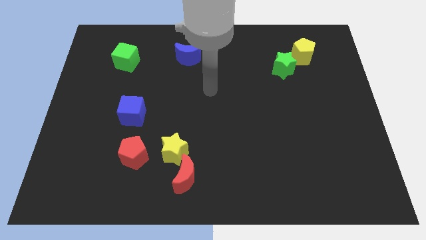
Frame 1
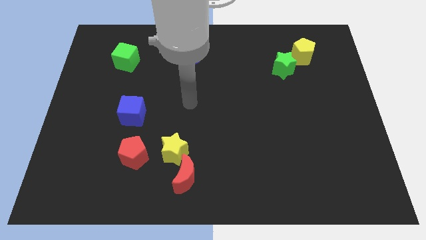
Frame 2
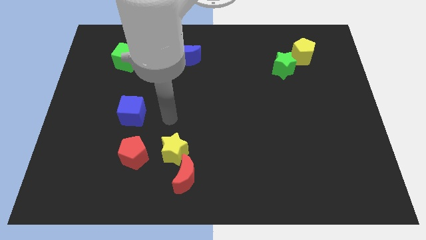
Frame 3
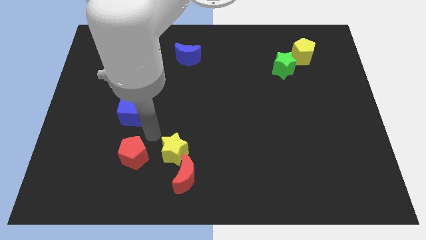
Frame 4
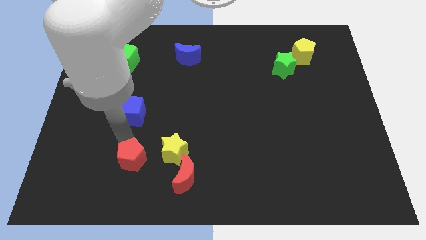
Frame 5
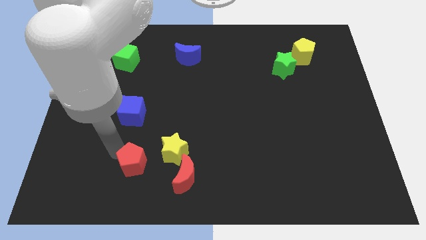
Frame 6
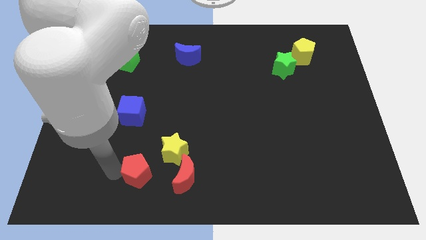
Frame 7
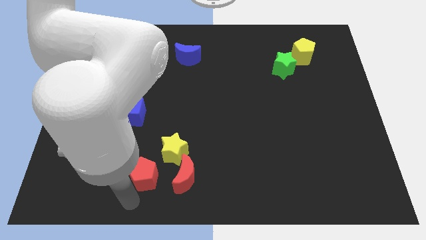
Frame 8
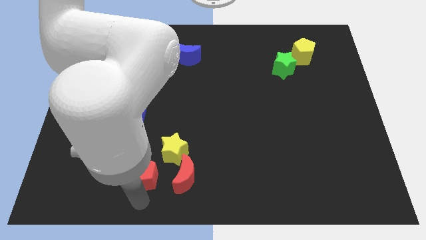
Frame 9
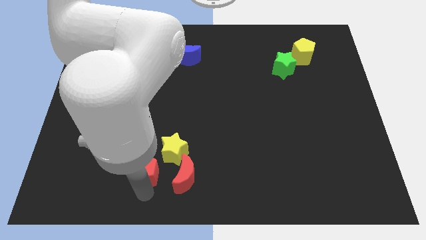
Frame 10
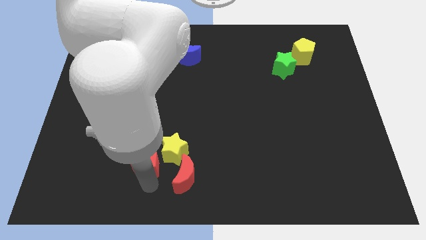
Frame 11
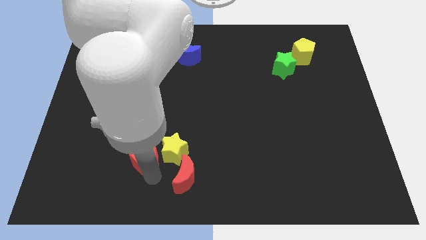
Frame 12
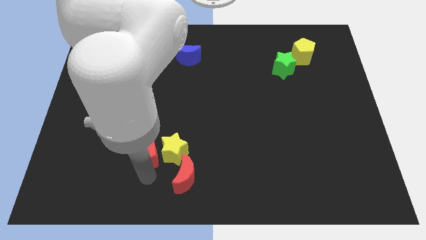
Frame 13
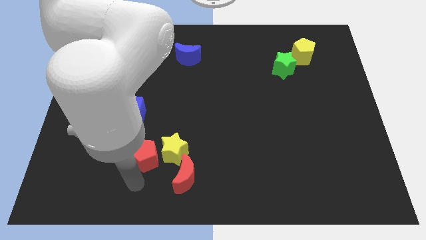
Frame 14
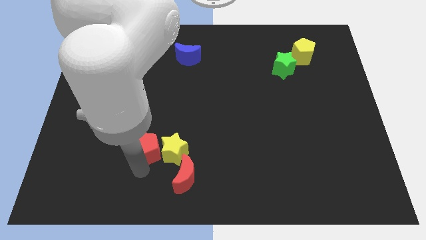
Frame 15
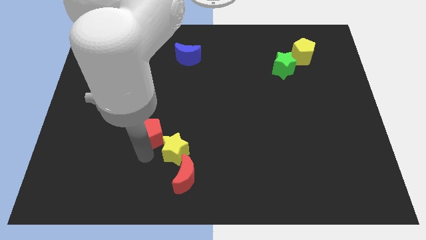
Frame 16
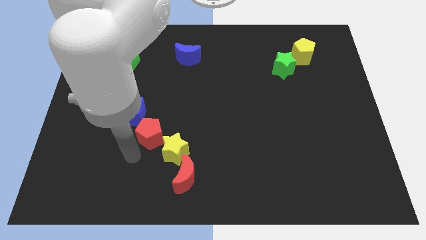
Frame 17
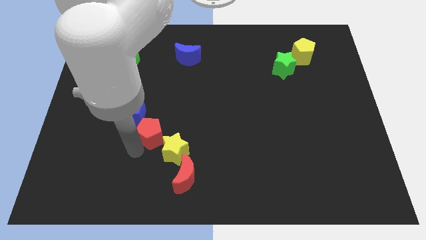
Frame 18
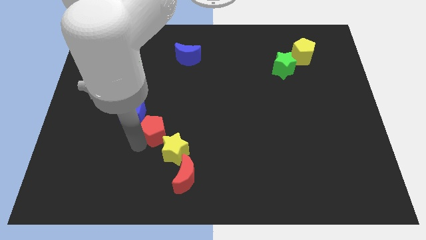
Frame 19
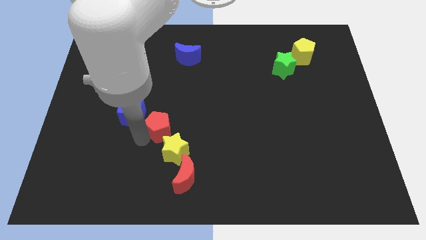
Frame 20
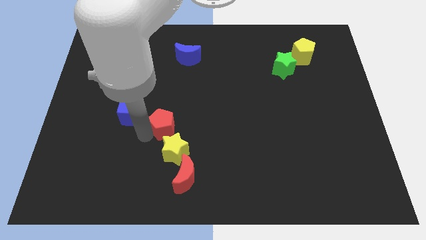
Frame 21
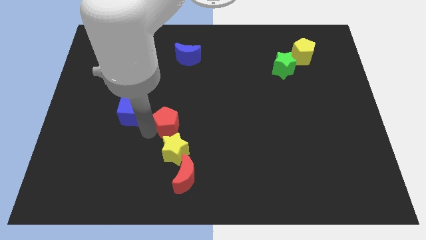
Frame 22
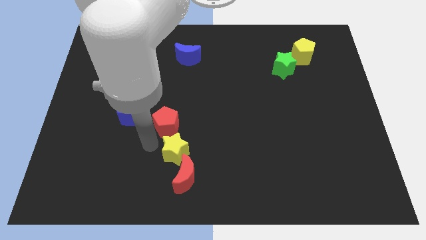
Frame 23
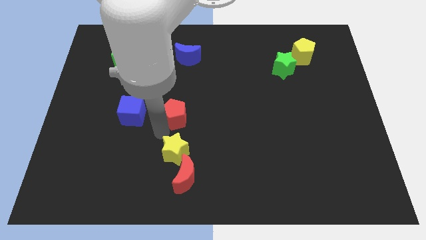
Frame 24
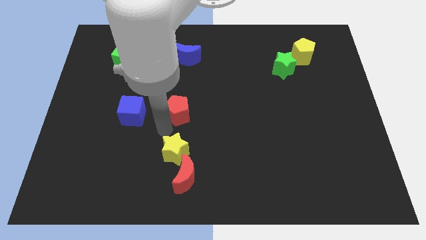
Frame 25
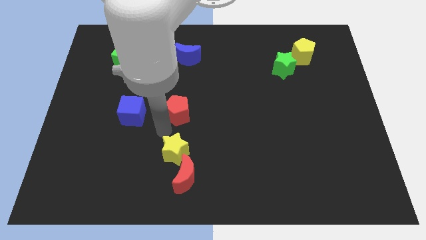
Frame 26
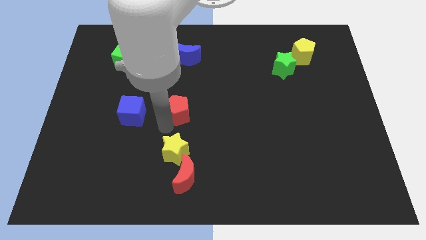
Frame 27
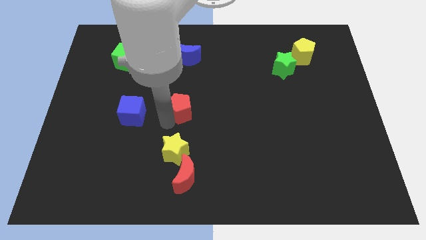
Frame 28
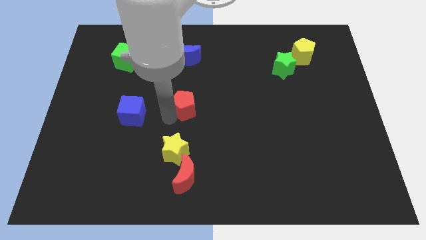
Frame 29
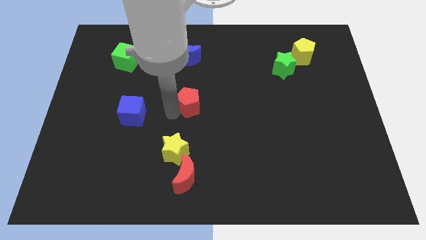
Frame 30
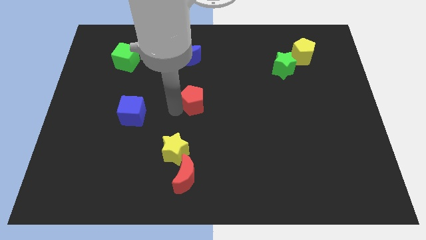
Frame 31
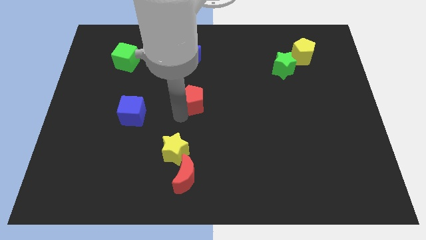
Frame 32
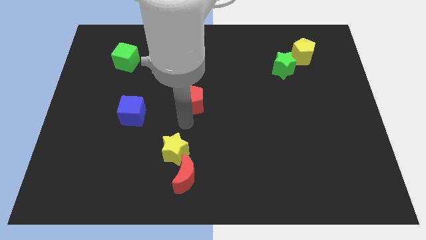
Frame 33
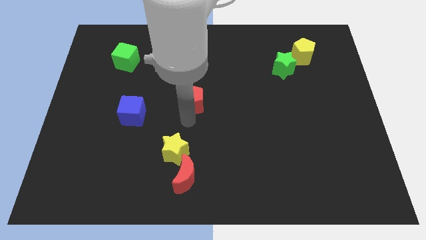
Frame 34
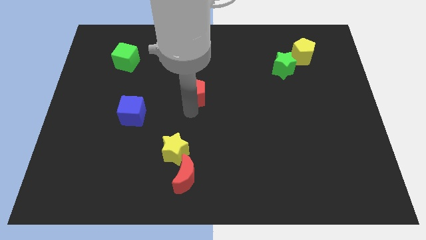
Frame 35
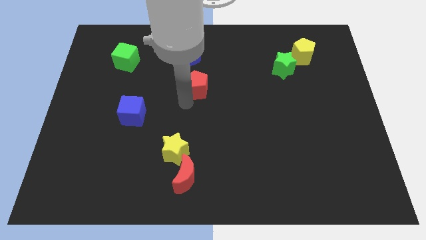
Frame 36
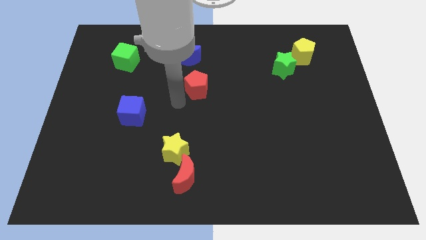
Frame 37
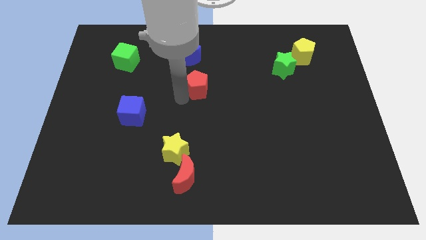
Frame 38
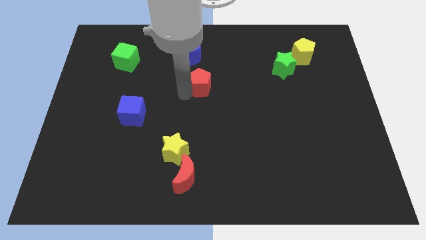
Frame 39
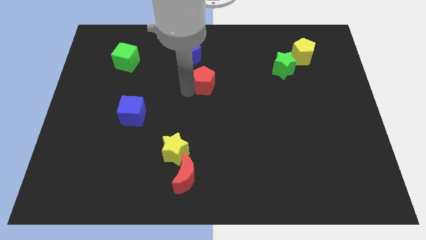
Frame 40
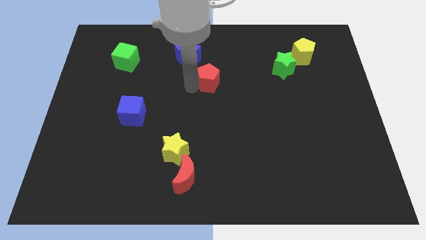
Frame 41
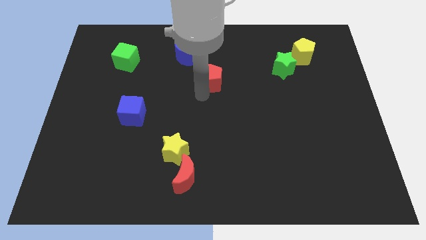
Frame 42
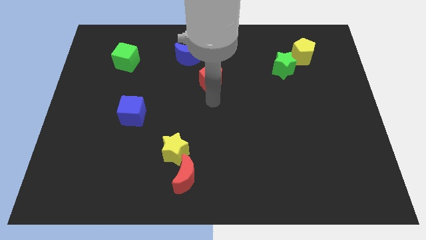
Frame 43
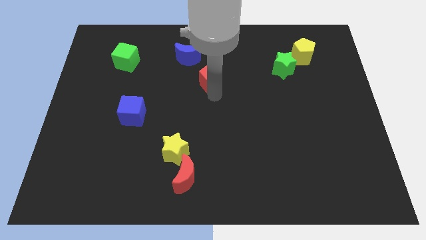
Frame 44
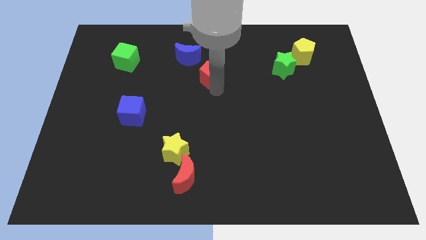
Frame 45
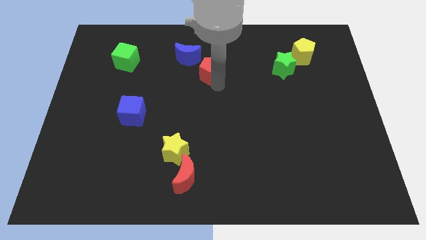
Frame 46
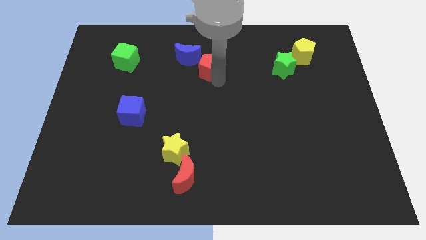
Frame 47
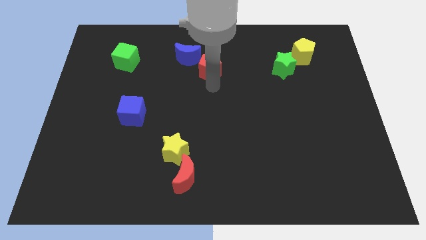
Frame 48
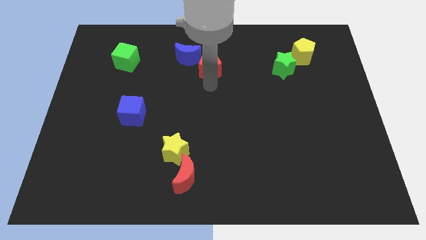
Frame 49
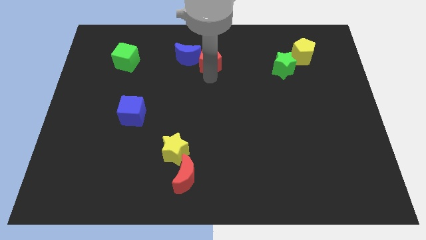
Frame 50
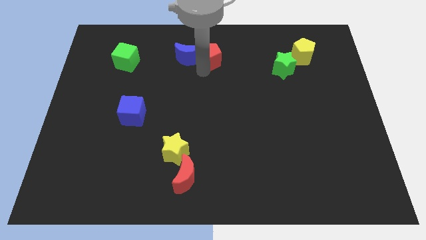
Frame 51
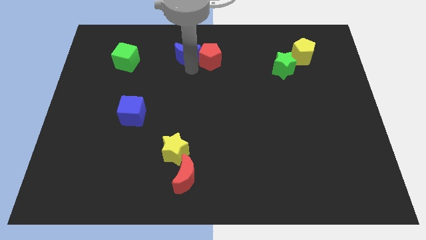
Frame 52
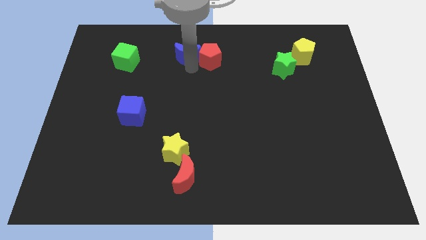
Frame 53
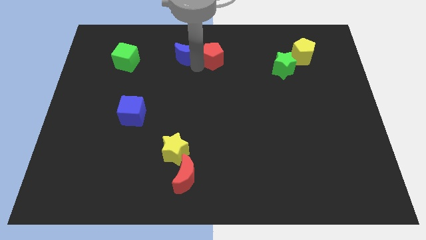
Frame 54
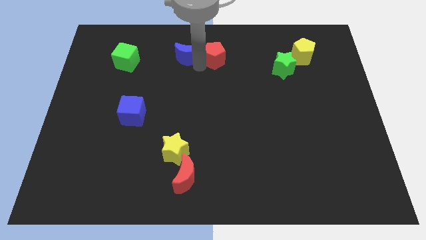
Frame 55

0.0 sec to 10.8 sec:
put the red pentagon to the towards your base
